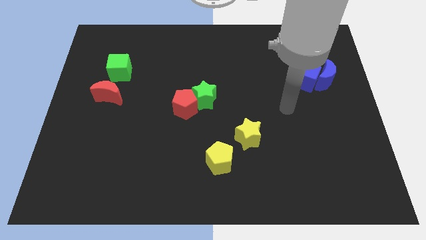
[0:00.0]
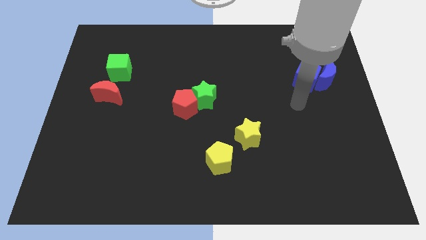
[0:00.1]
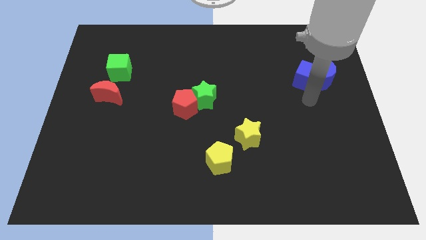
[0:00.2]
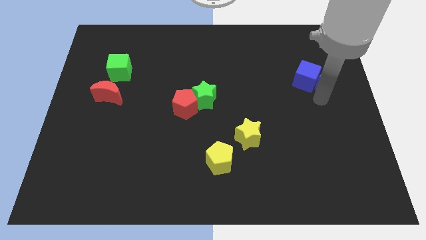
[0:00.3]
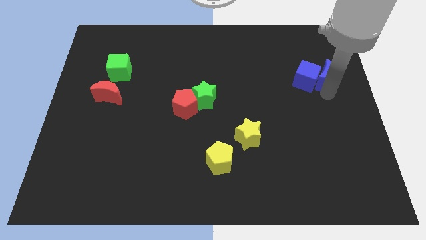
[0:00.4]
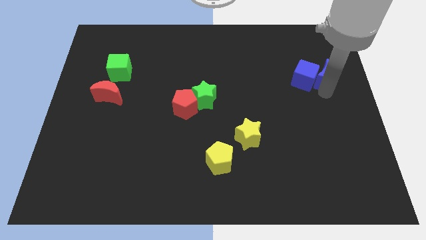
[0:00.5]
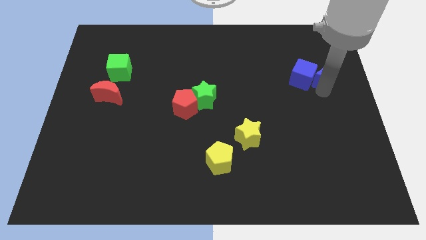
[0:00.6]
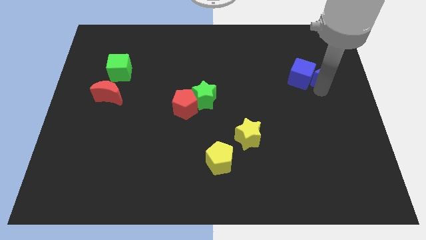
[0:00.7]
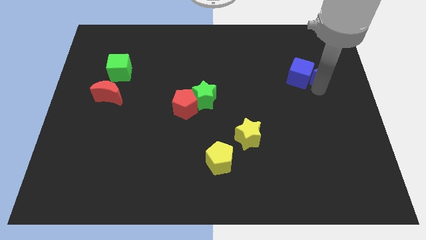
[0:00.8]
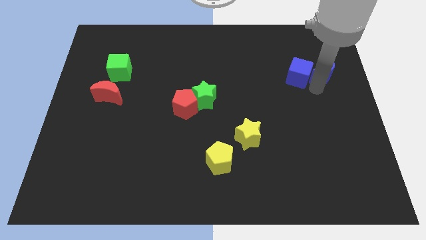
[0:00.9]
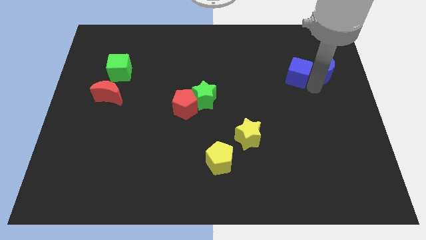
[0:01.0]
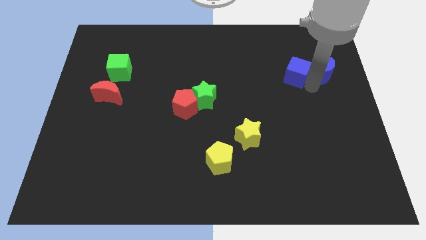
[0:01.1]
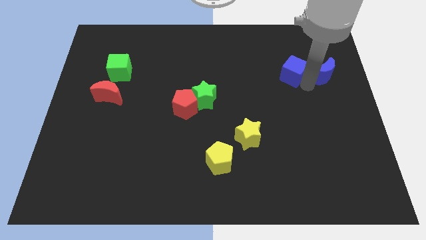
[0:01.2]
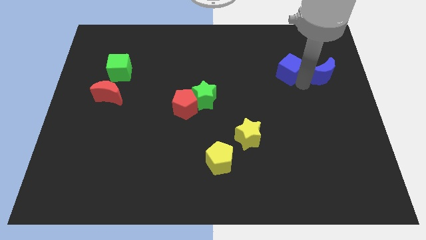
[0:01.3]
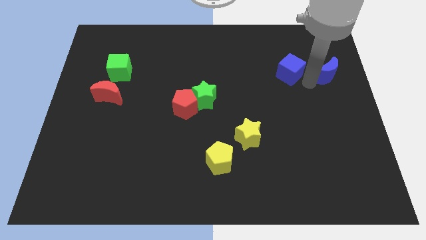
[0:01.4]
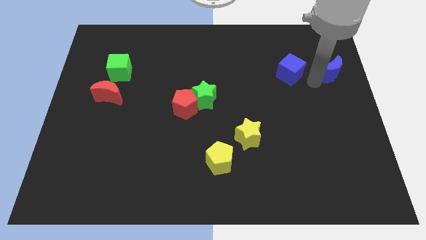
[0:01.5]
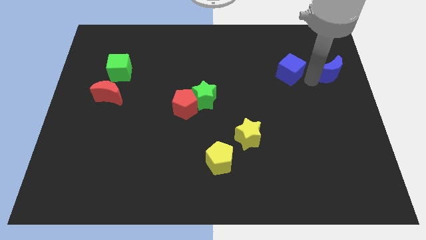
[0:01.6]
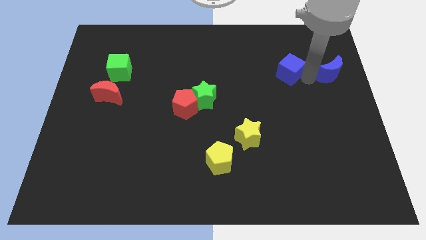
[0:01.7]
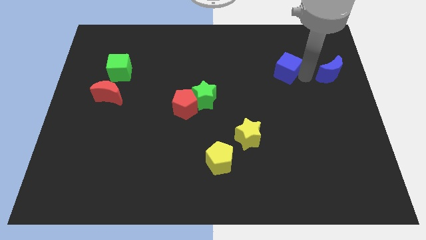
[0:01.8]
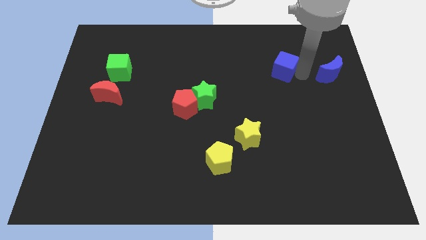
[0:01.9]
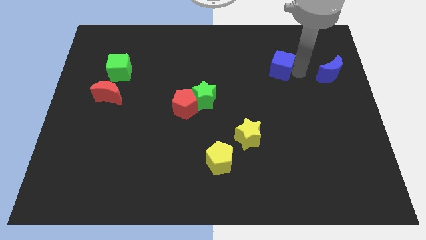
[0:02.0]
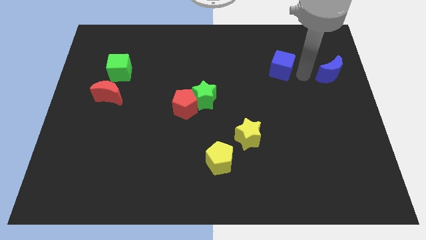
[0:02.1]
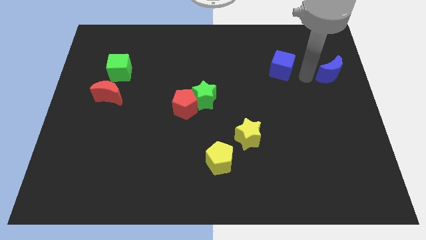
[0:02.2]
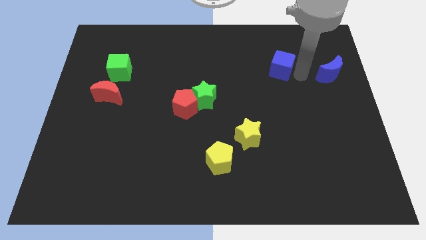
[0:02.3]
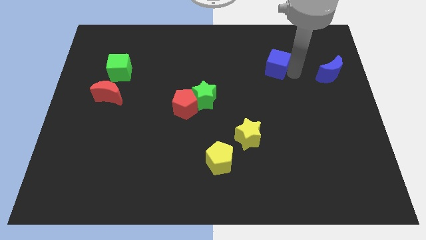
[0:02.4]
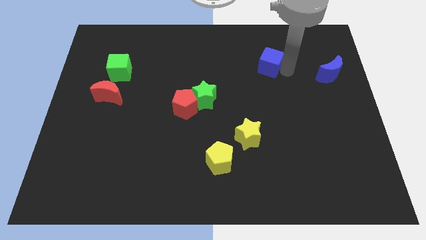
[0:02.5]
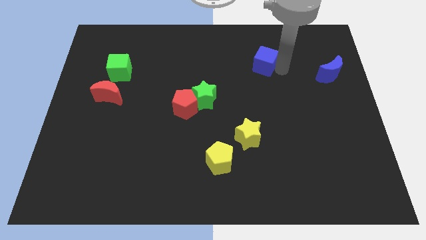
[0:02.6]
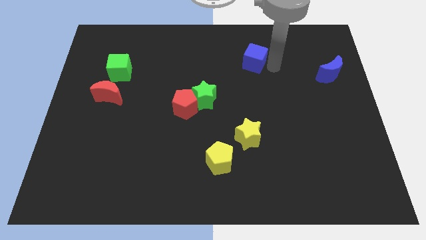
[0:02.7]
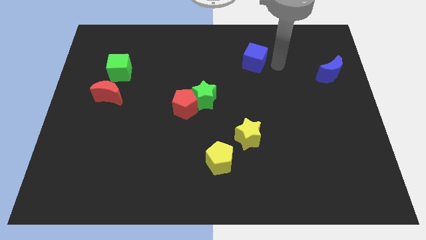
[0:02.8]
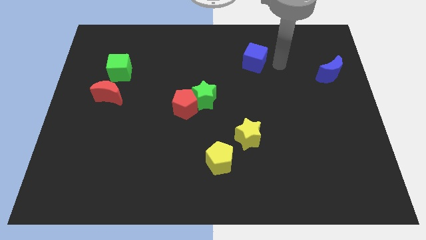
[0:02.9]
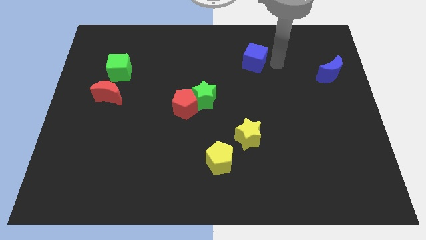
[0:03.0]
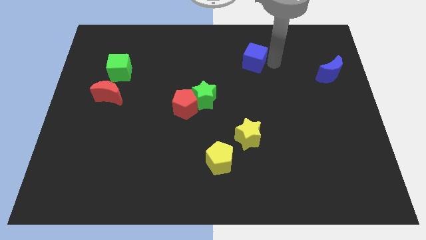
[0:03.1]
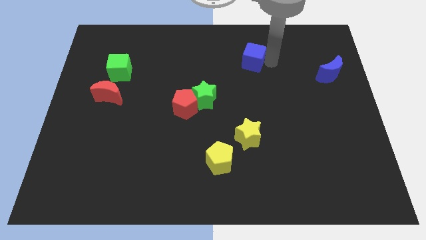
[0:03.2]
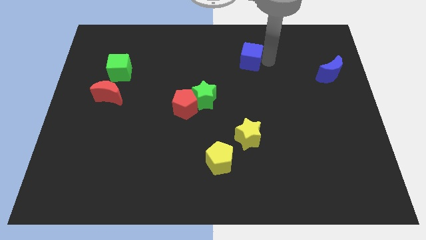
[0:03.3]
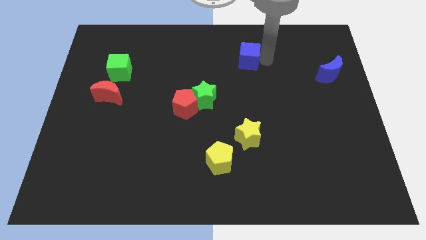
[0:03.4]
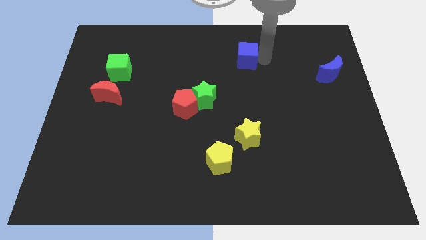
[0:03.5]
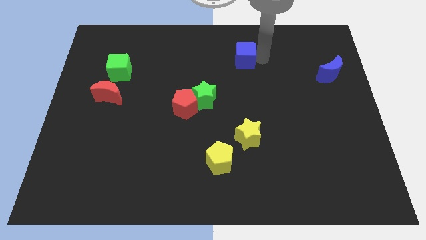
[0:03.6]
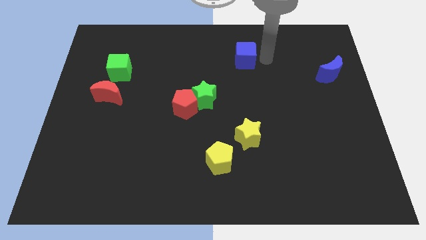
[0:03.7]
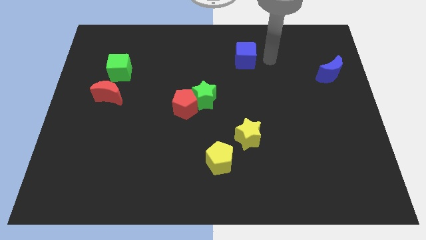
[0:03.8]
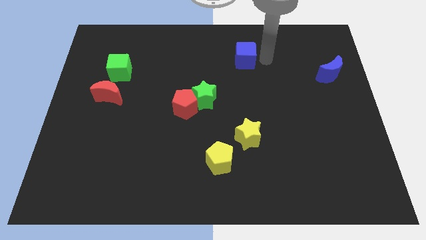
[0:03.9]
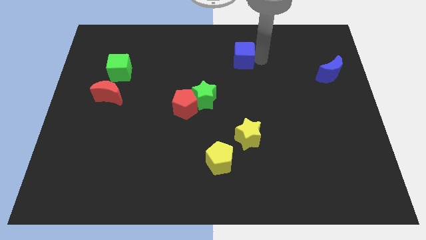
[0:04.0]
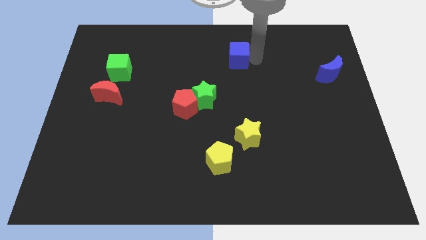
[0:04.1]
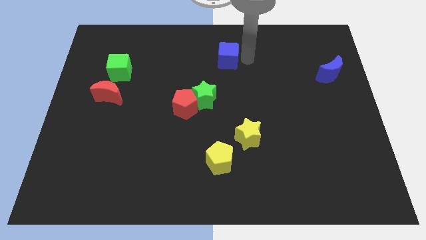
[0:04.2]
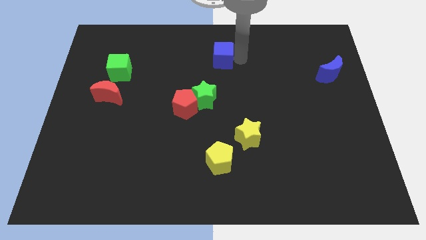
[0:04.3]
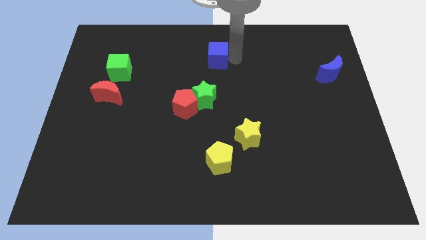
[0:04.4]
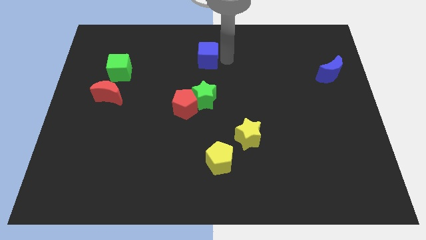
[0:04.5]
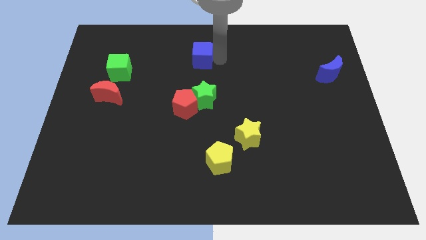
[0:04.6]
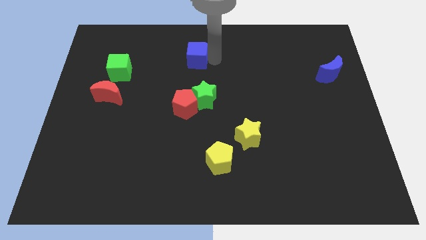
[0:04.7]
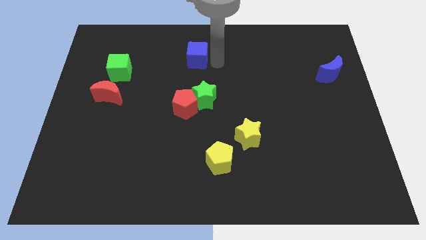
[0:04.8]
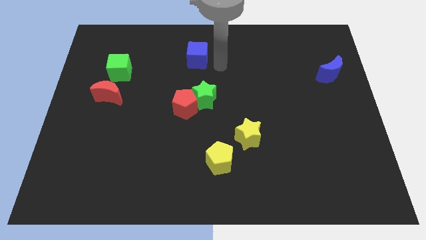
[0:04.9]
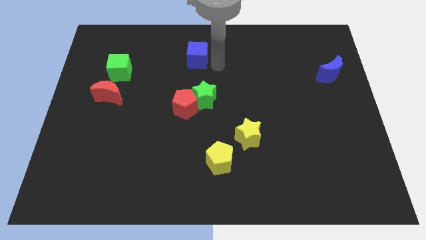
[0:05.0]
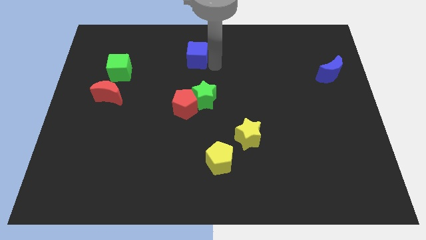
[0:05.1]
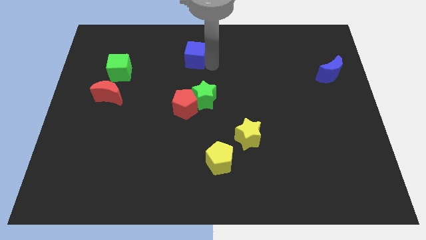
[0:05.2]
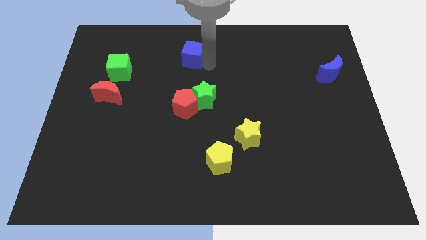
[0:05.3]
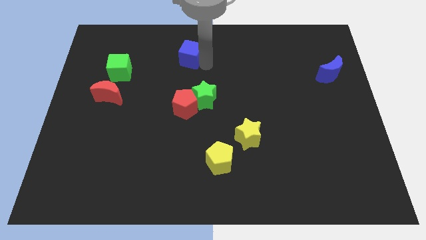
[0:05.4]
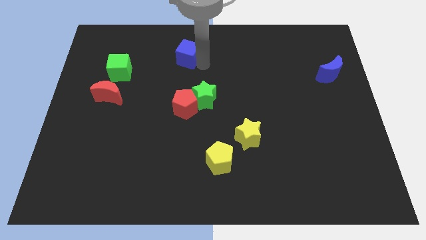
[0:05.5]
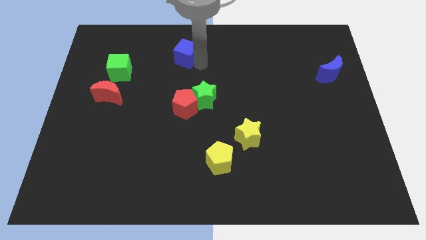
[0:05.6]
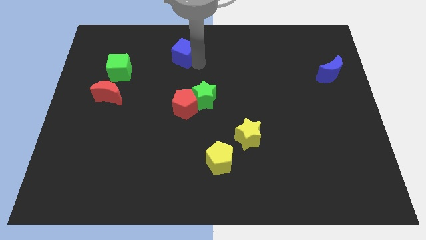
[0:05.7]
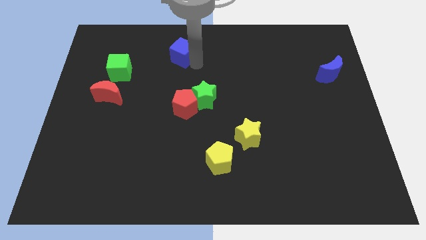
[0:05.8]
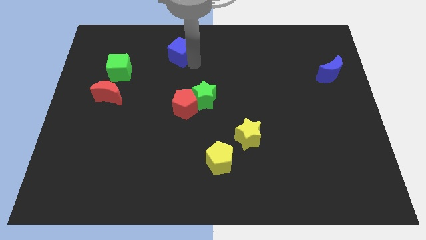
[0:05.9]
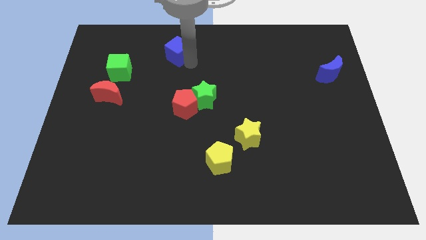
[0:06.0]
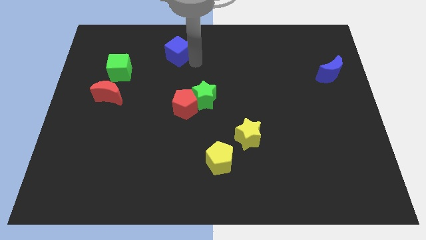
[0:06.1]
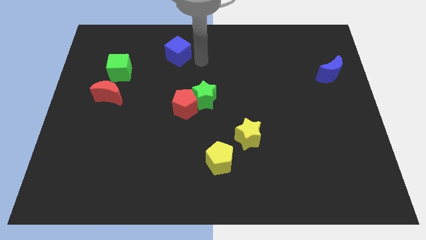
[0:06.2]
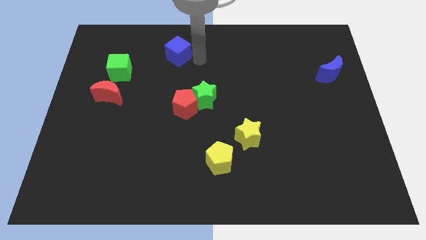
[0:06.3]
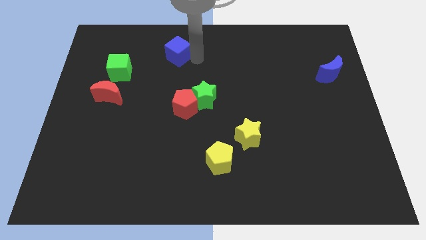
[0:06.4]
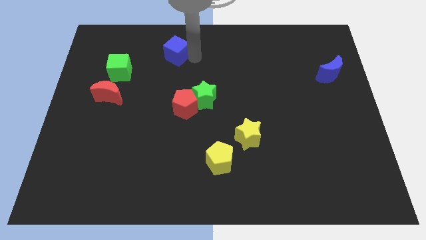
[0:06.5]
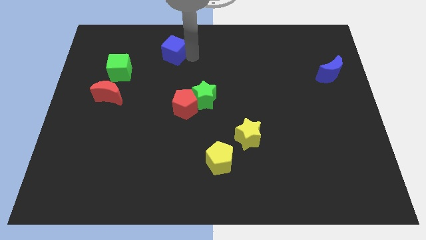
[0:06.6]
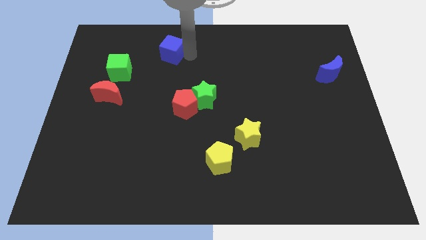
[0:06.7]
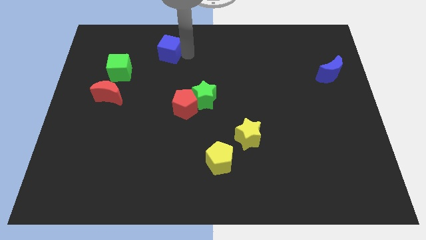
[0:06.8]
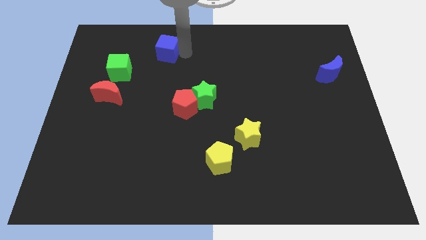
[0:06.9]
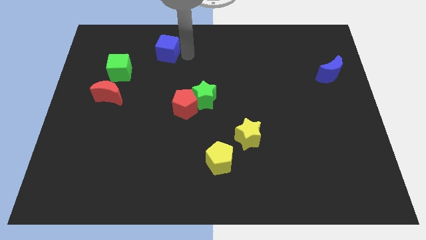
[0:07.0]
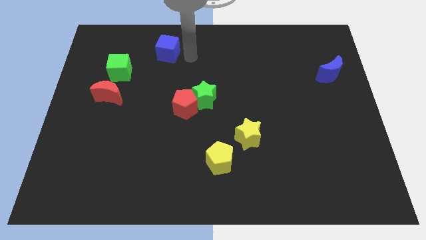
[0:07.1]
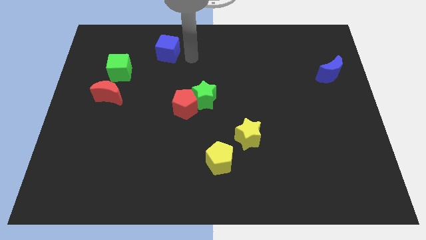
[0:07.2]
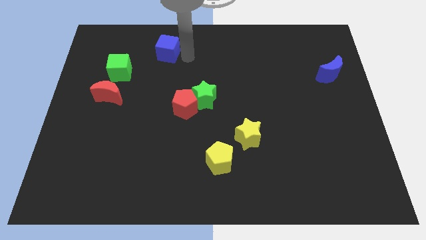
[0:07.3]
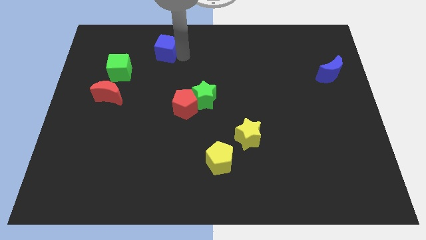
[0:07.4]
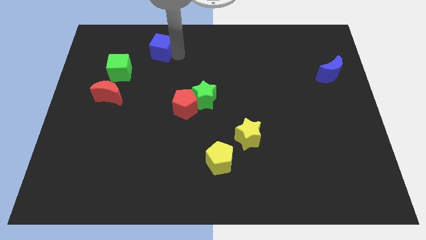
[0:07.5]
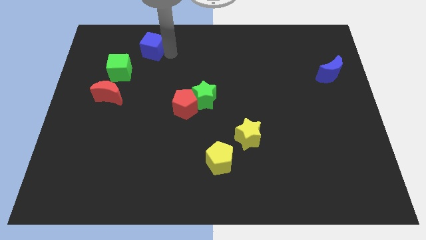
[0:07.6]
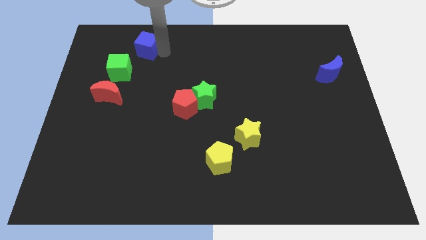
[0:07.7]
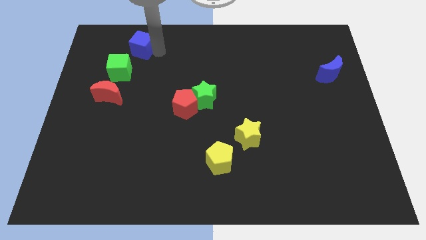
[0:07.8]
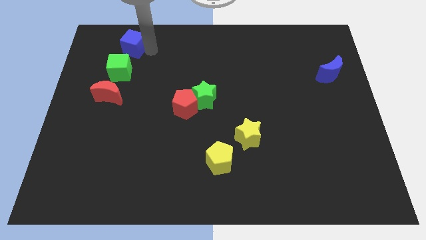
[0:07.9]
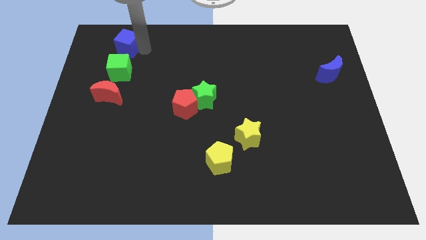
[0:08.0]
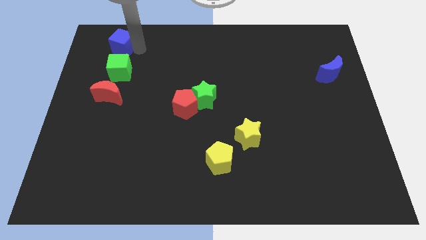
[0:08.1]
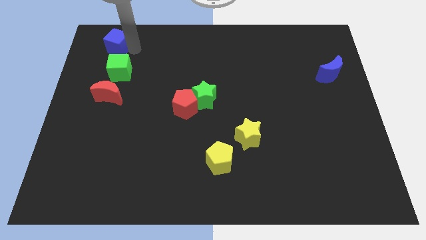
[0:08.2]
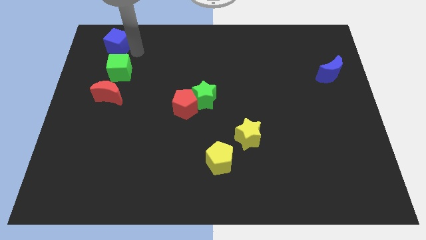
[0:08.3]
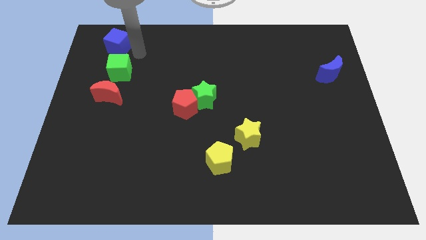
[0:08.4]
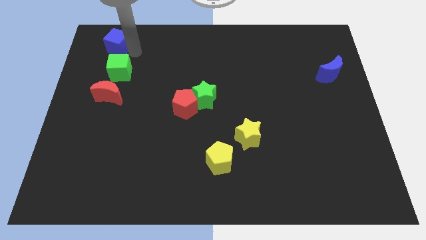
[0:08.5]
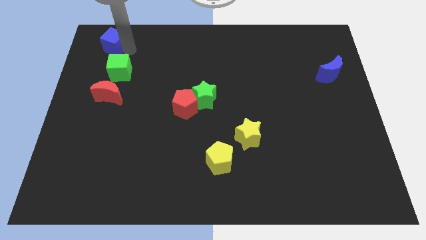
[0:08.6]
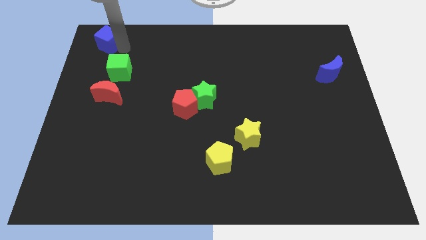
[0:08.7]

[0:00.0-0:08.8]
push the blue cube to the top left of the board
